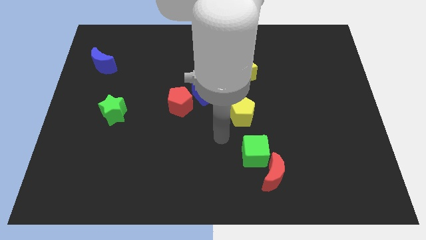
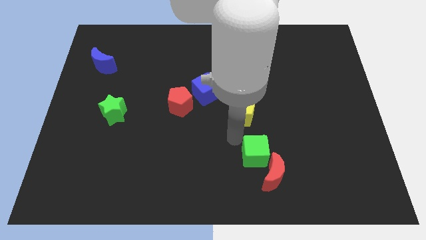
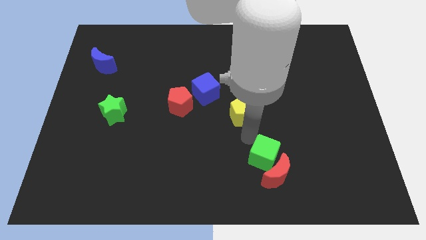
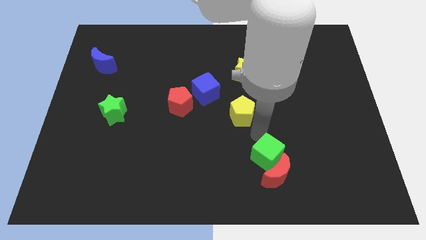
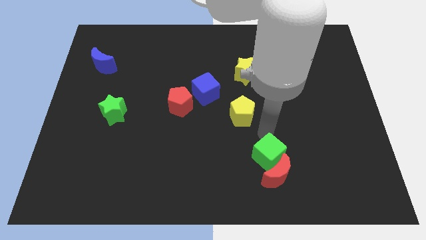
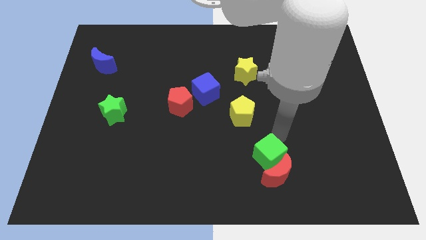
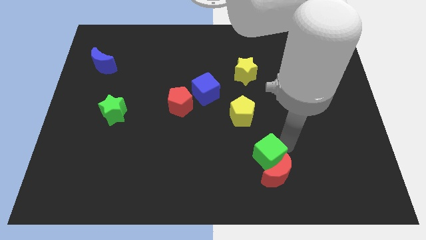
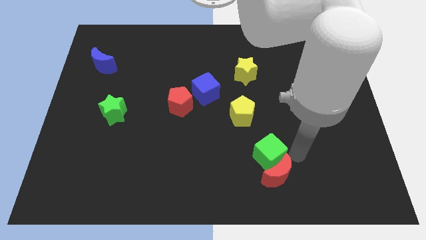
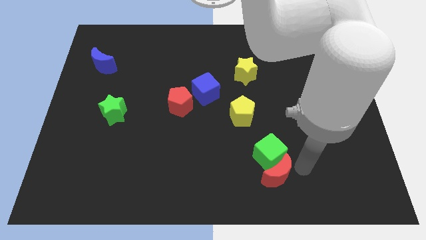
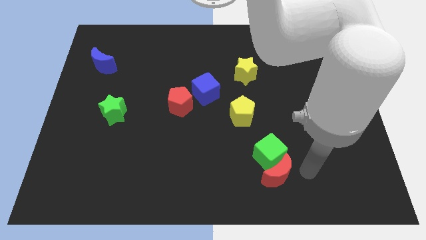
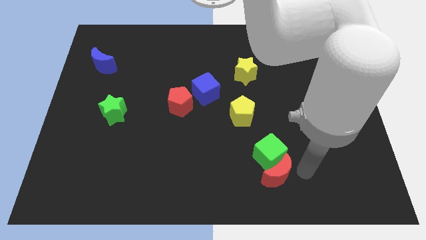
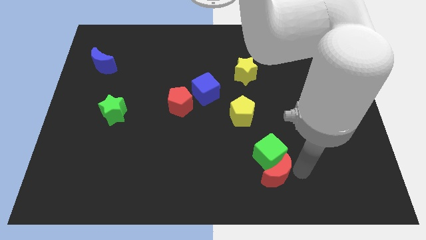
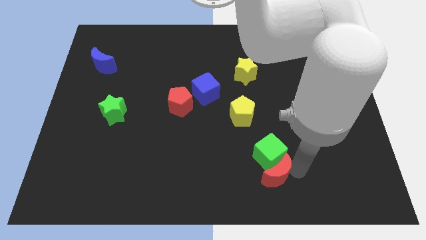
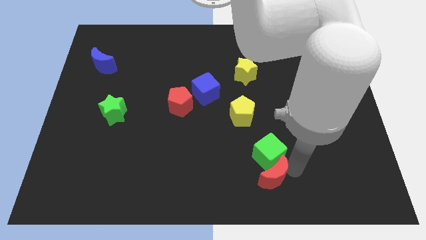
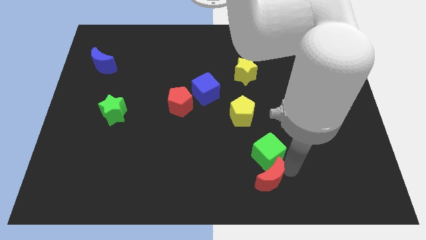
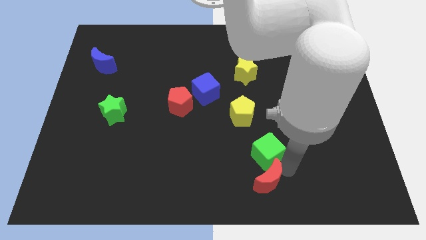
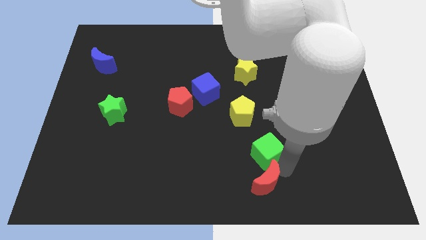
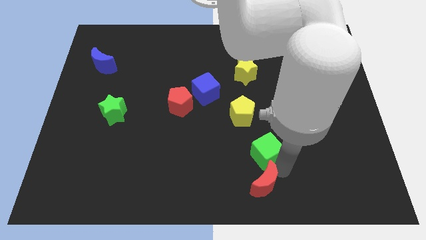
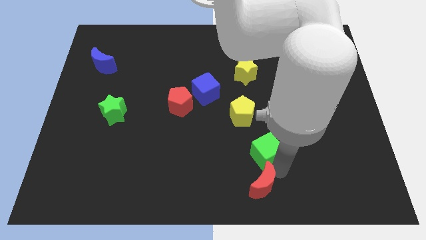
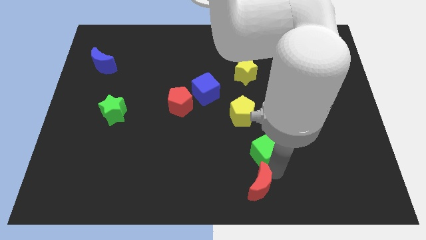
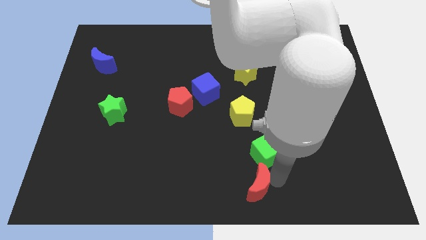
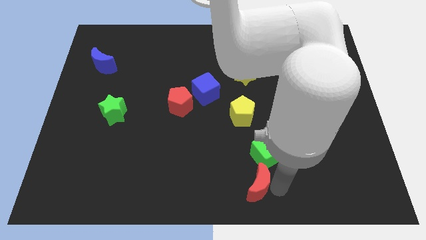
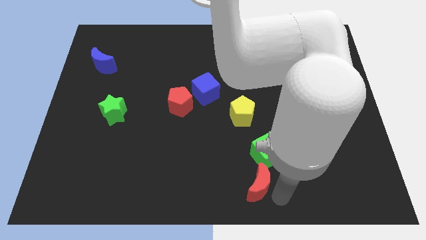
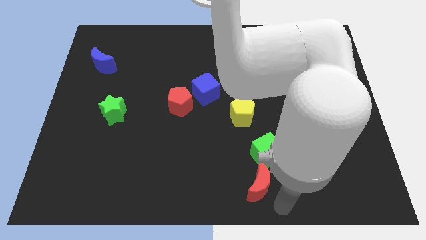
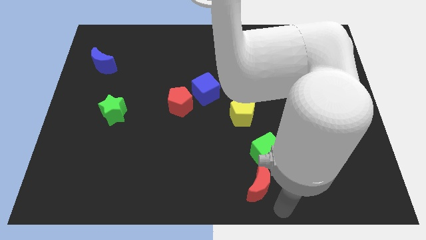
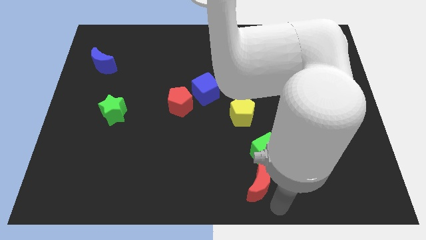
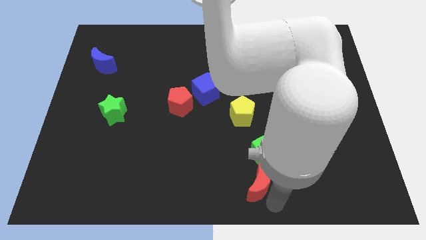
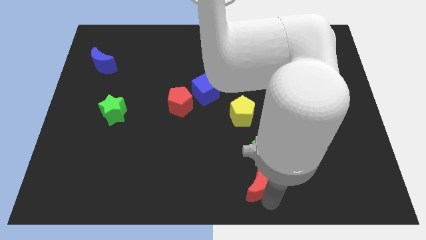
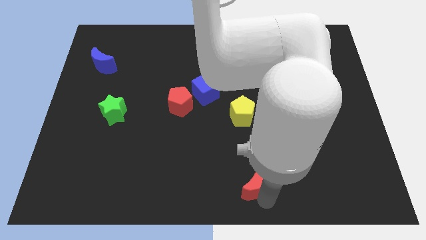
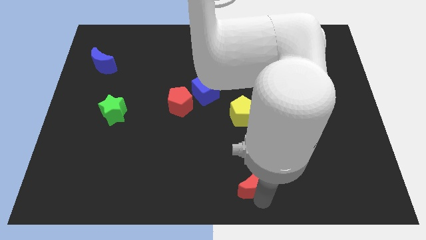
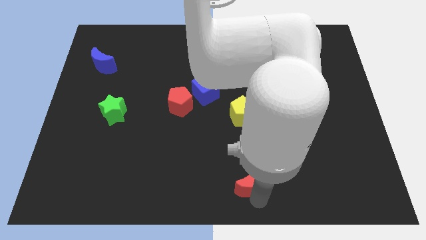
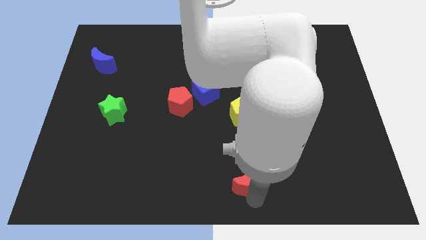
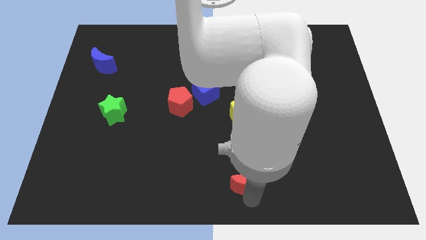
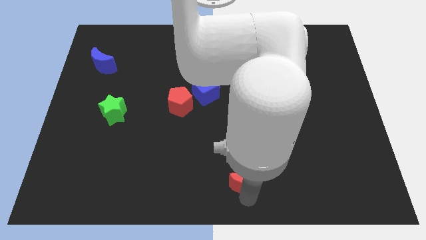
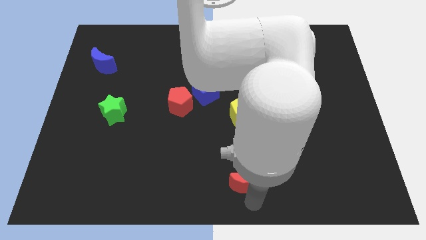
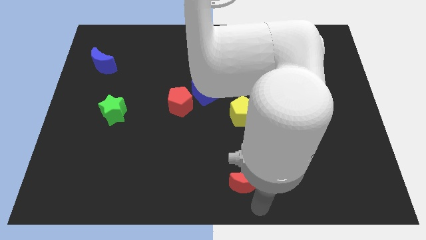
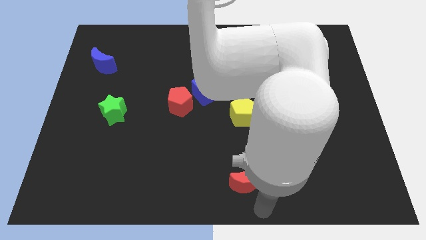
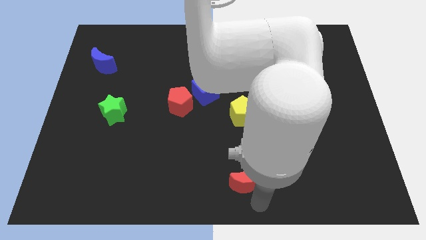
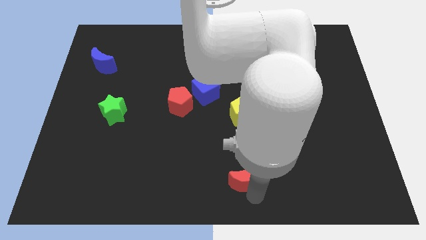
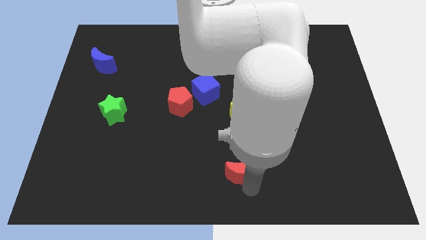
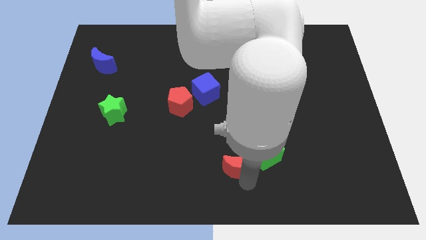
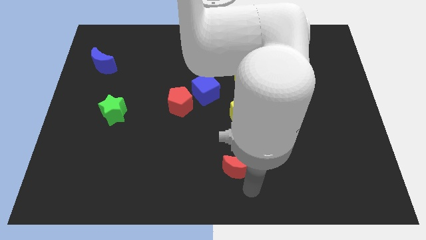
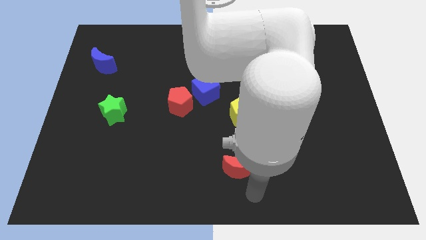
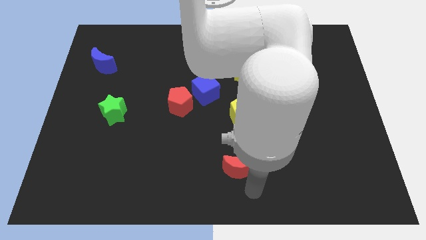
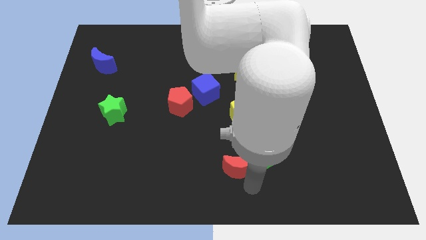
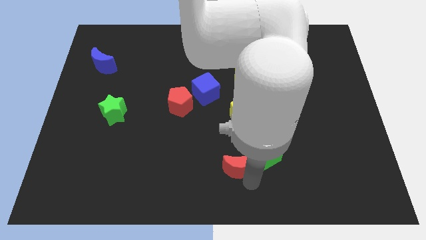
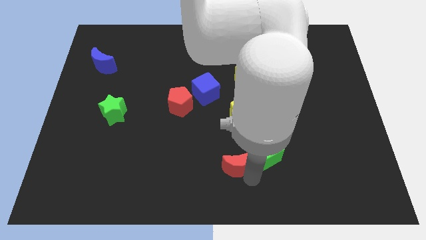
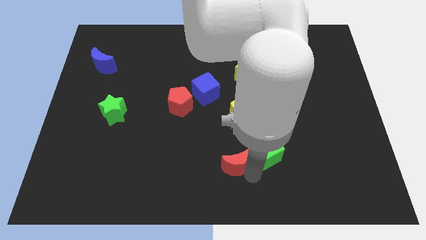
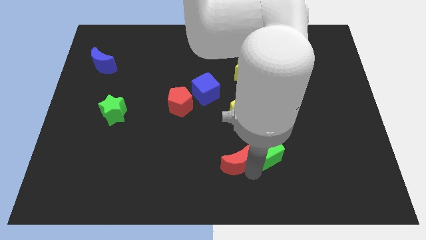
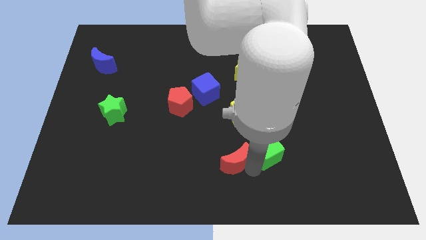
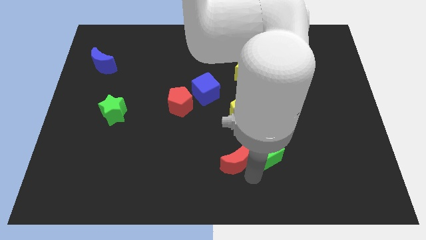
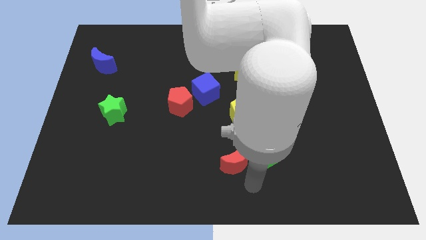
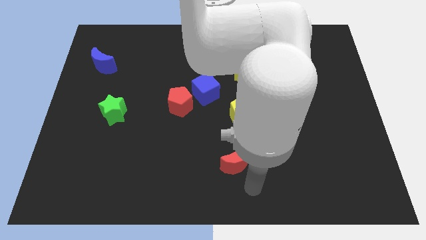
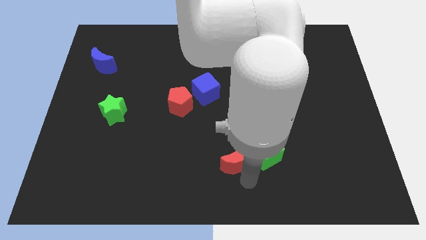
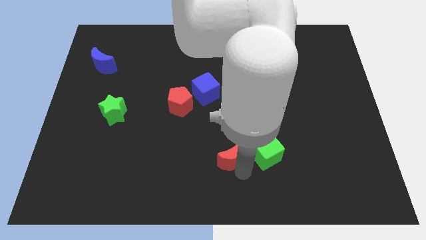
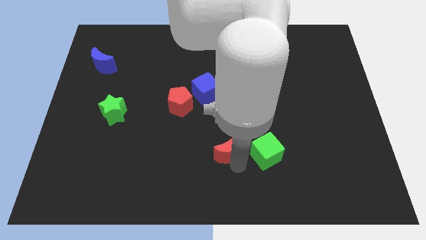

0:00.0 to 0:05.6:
put the red moon diagonally down and to the left of the yellow pentagon

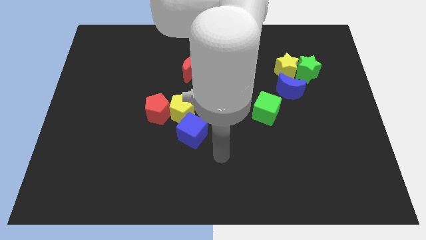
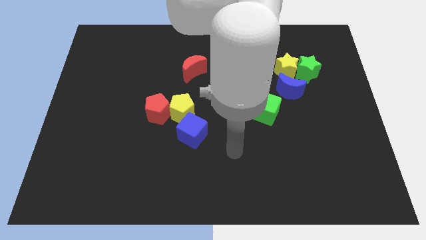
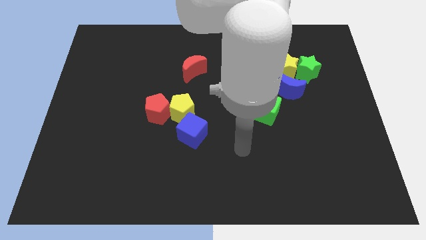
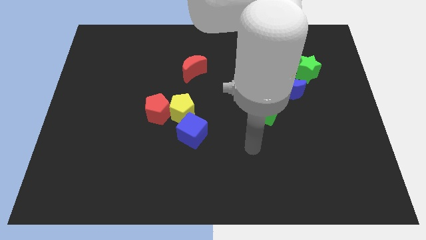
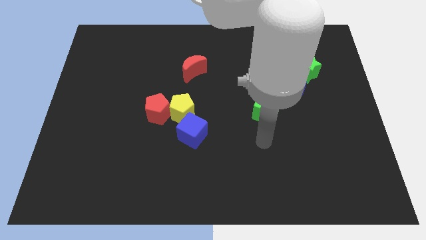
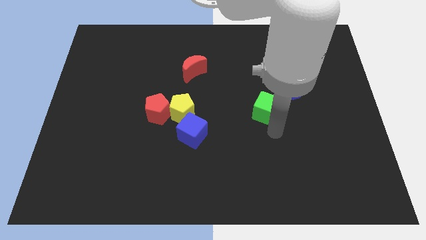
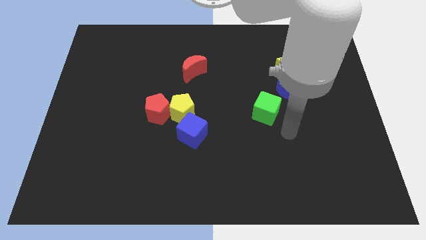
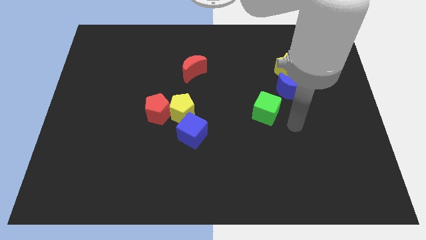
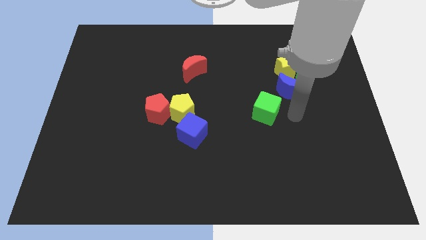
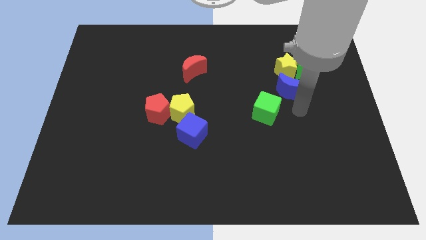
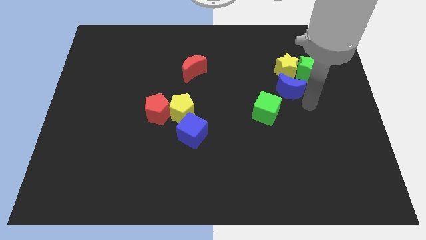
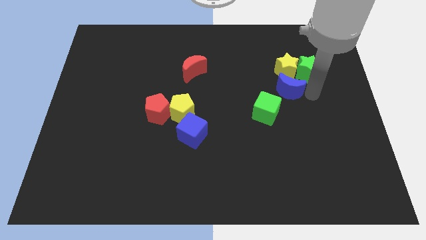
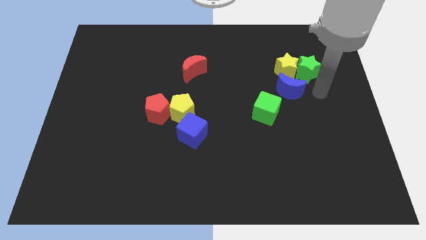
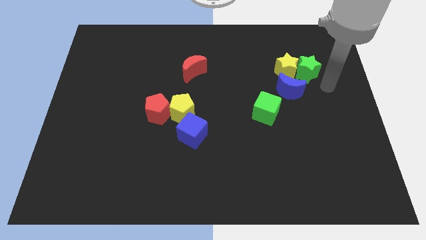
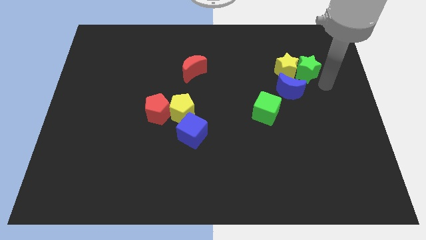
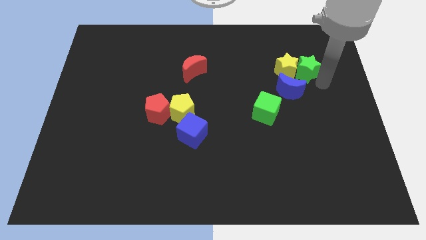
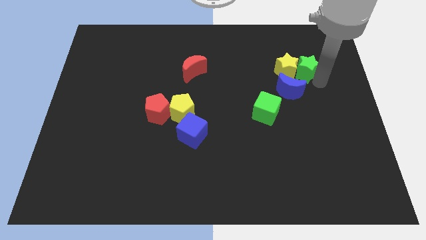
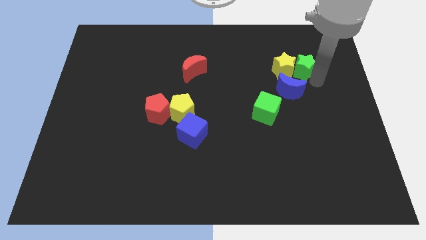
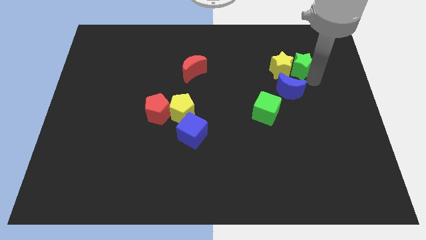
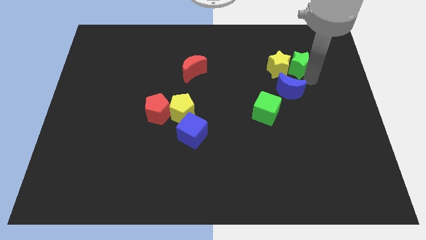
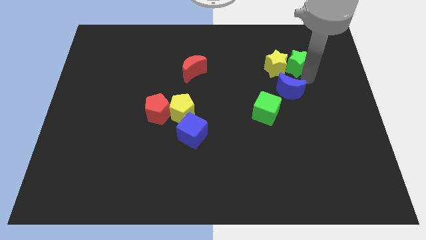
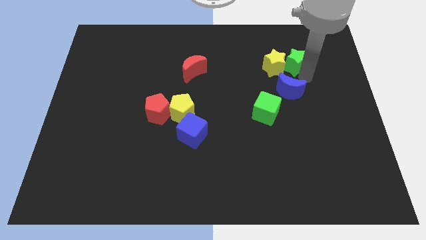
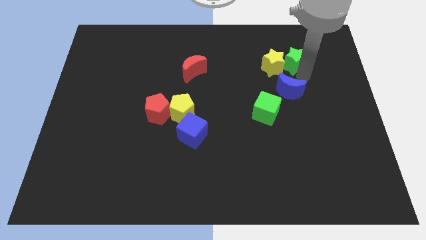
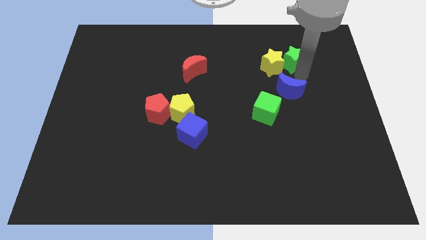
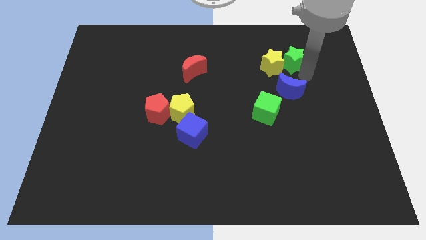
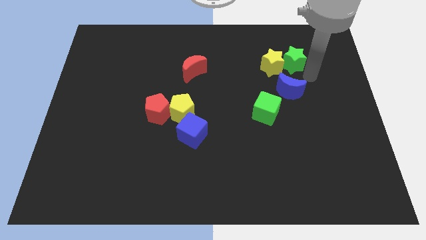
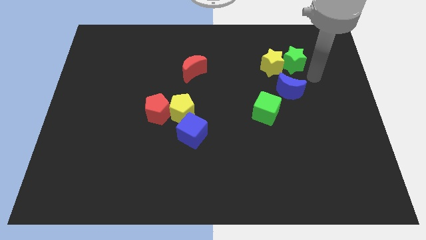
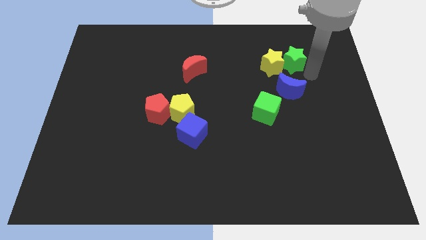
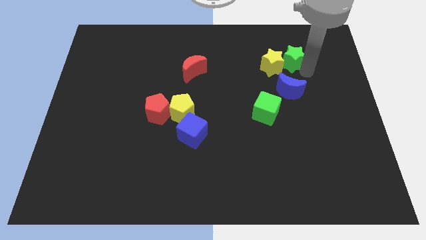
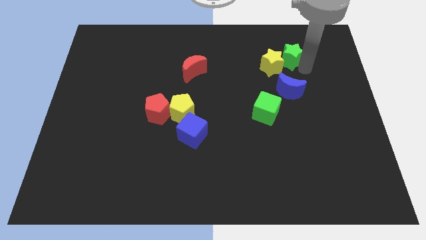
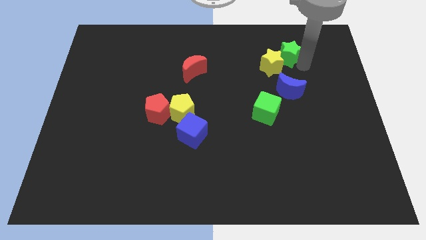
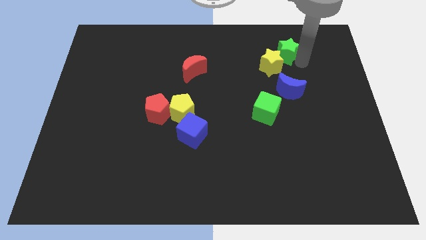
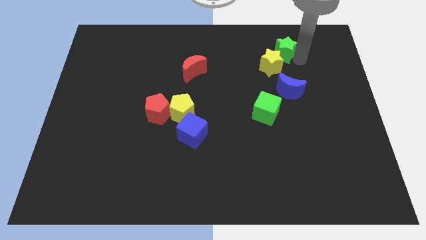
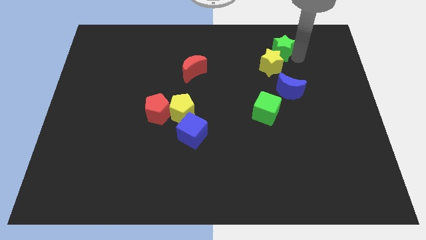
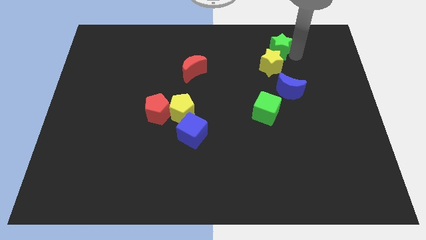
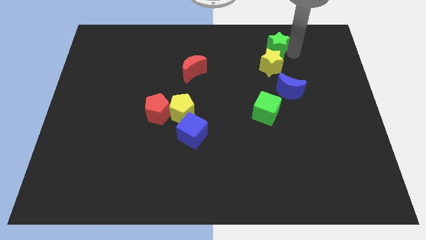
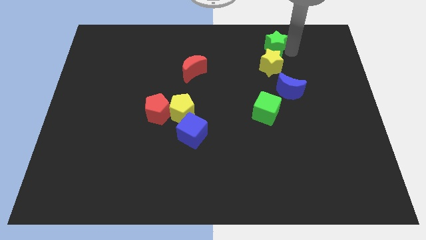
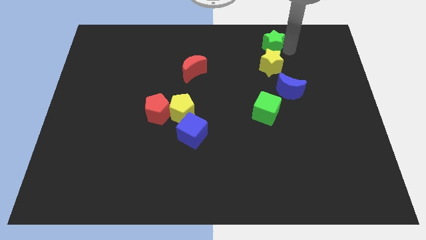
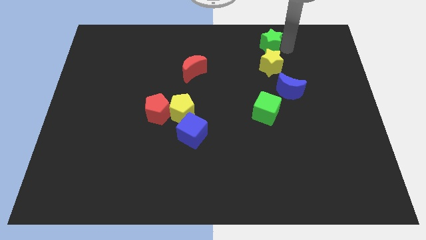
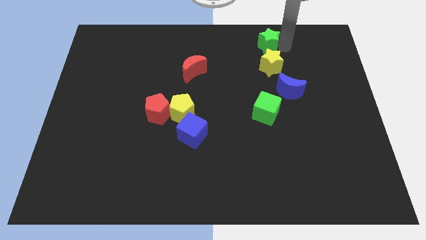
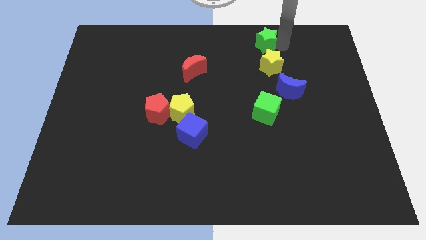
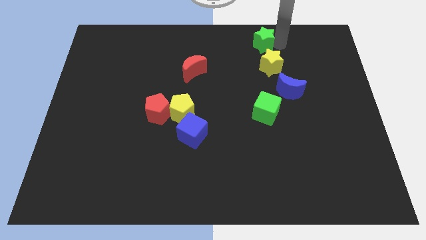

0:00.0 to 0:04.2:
slide the green star to the top left of the yellow star
